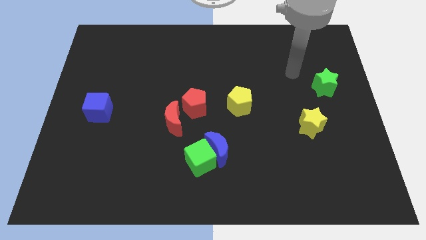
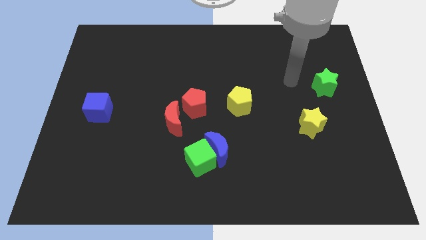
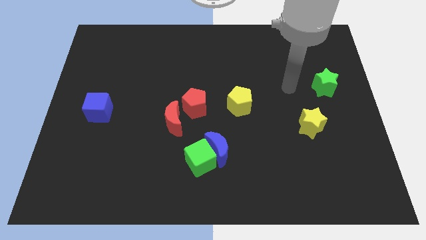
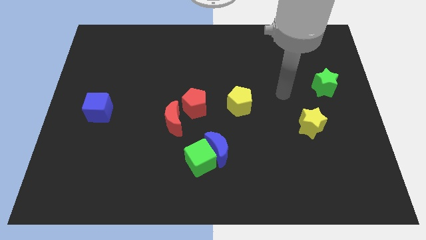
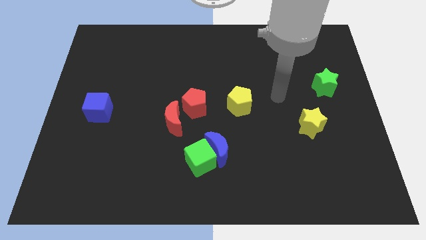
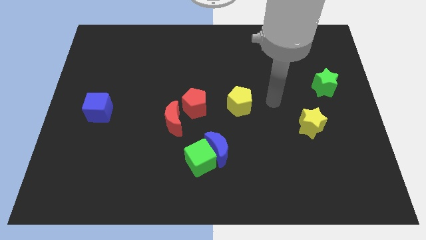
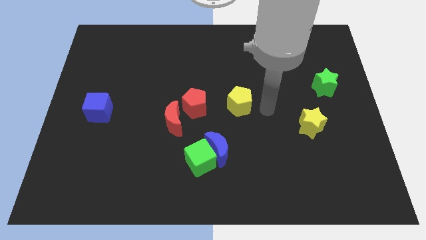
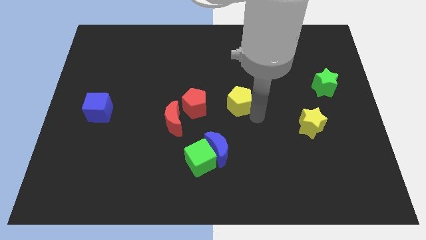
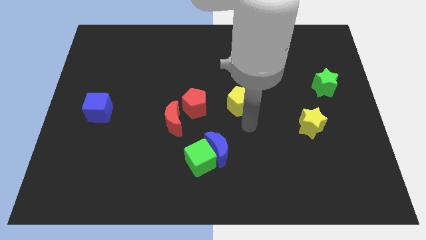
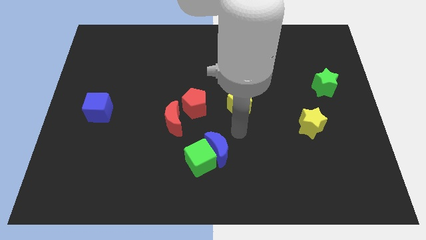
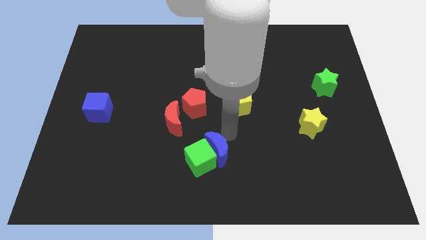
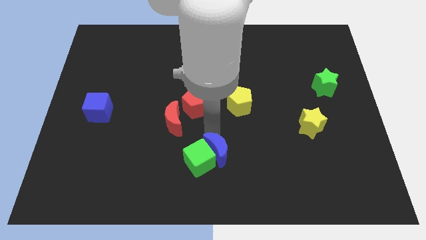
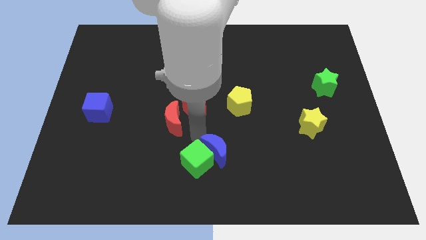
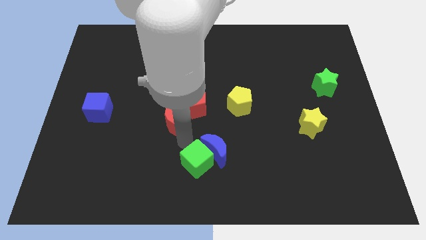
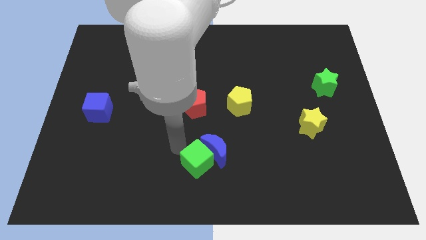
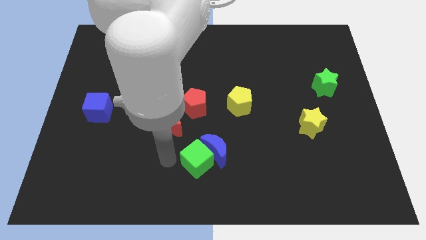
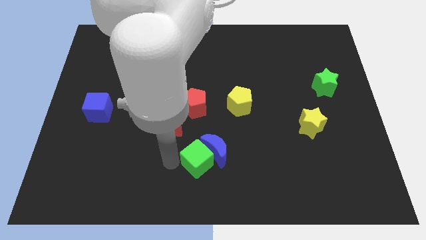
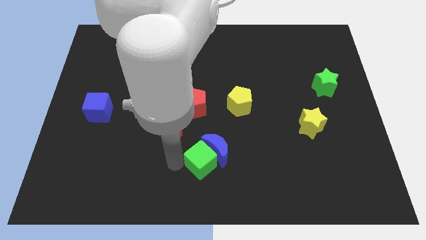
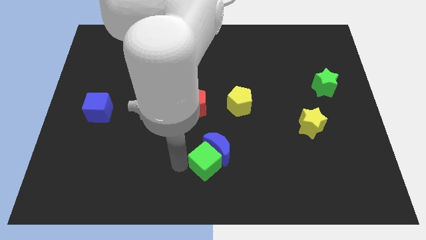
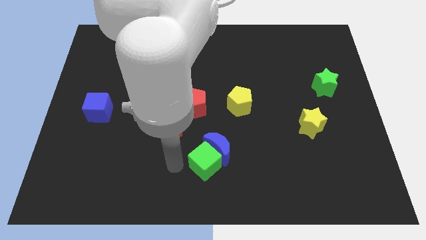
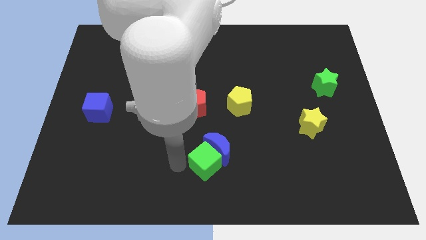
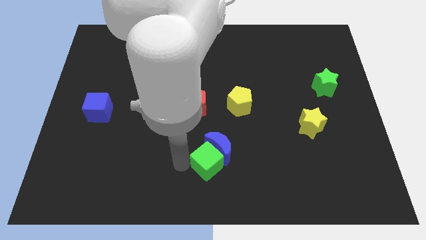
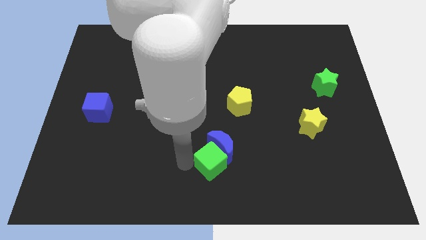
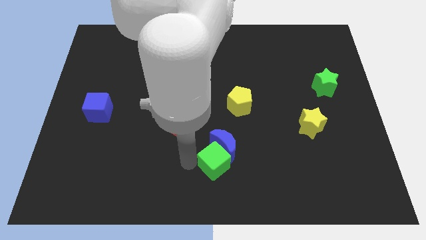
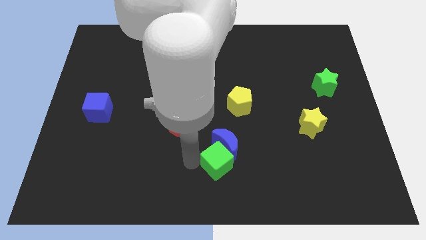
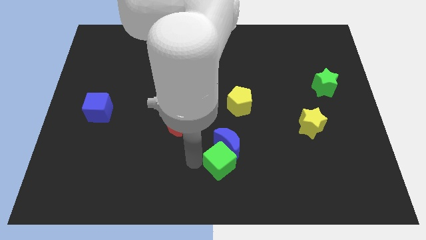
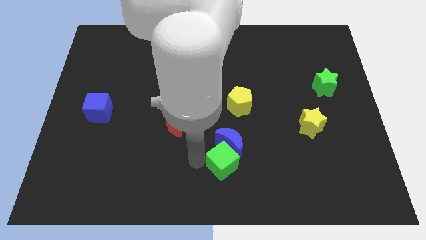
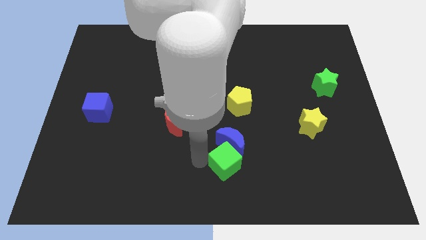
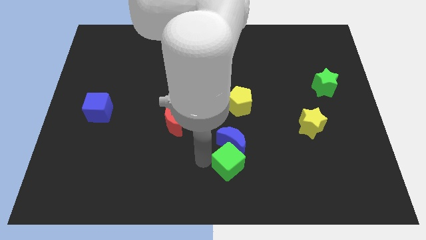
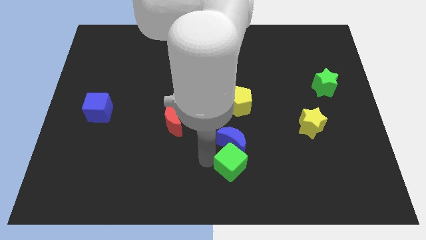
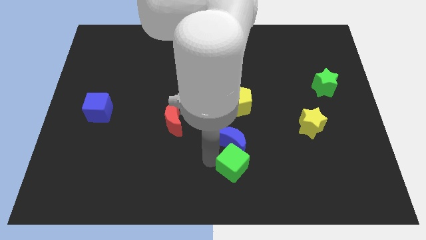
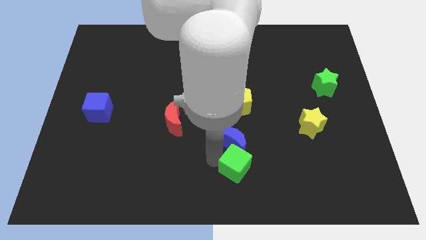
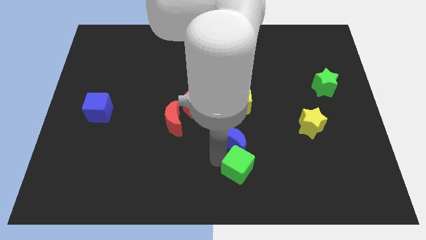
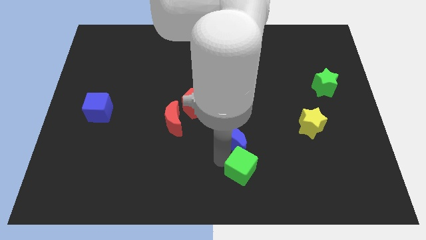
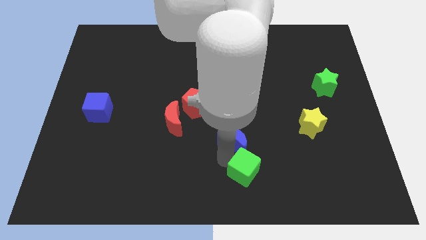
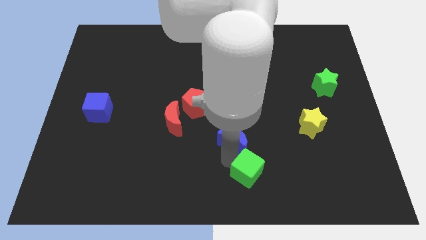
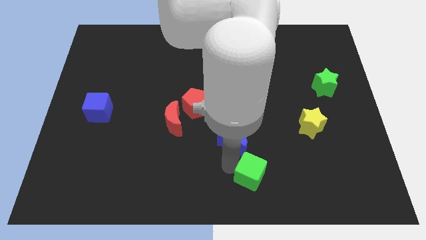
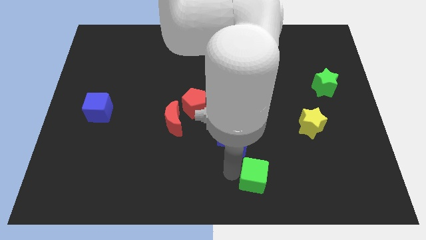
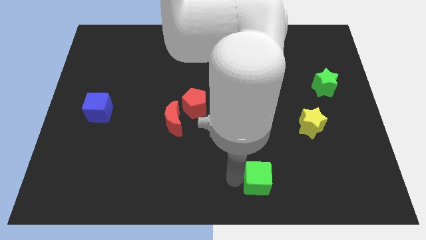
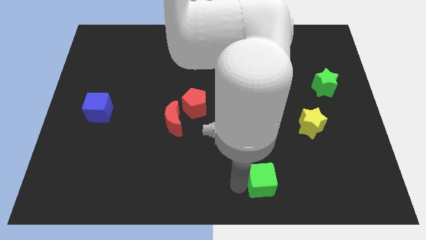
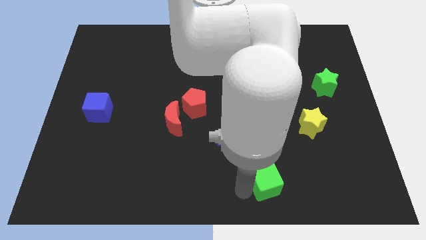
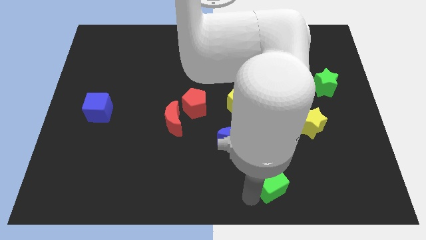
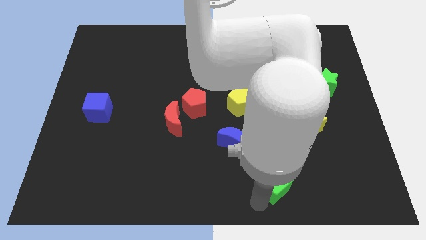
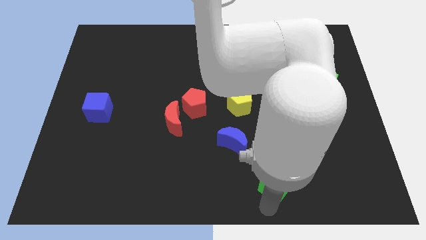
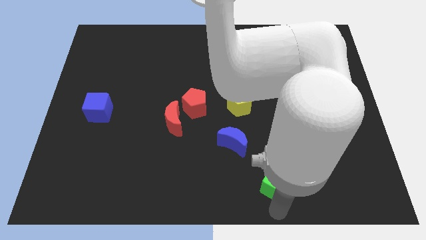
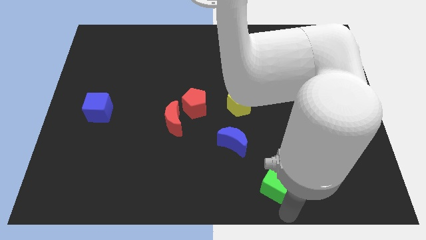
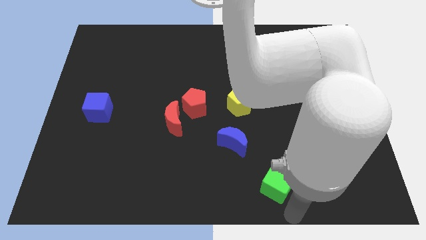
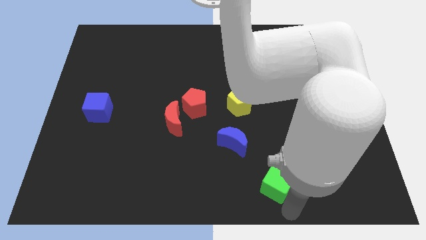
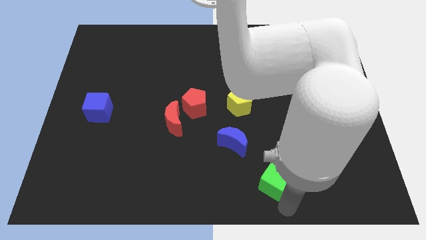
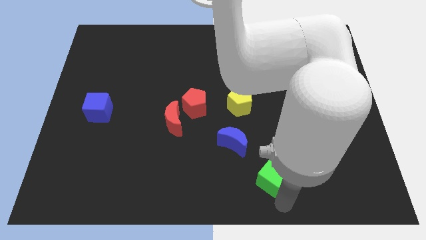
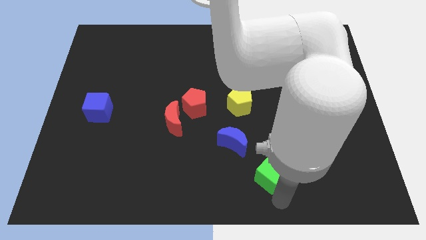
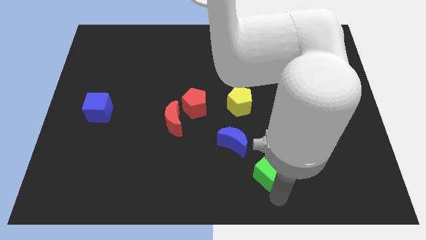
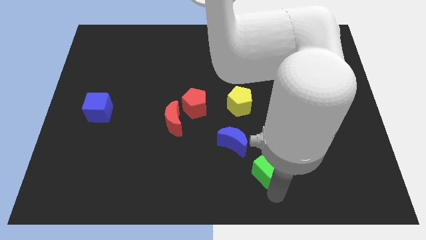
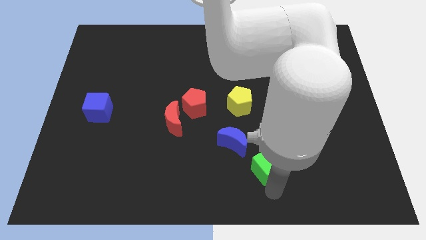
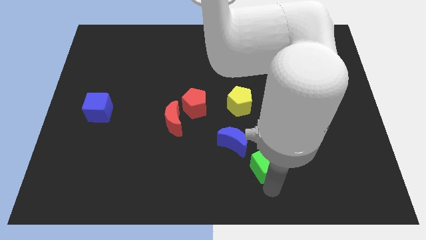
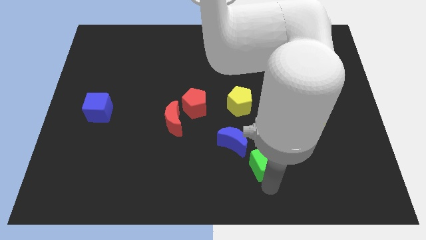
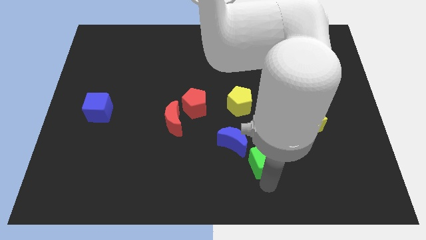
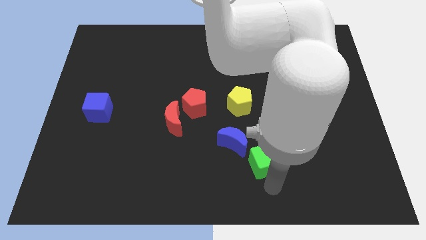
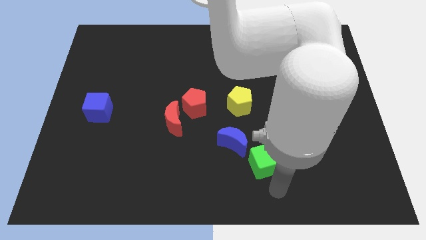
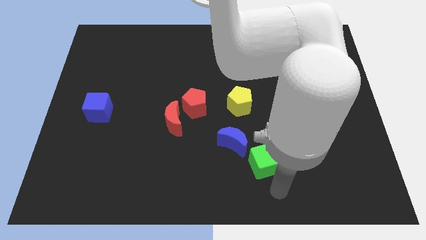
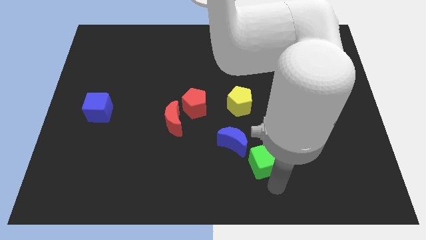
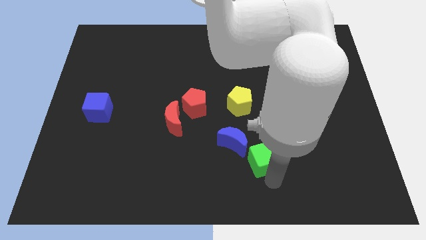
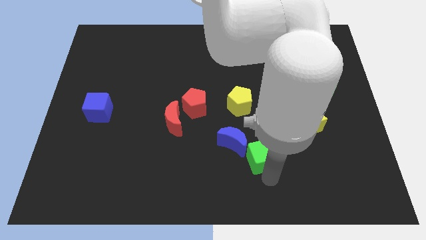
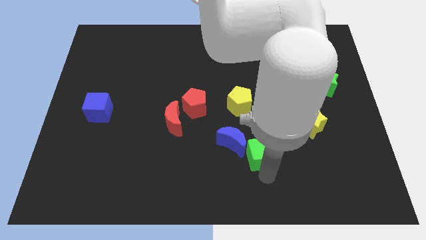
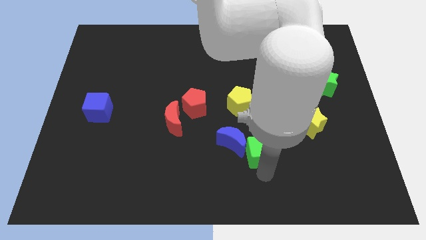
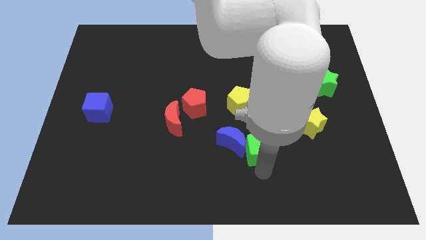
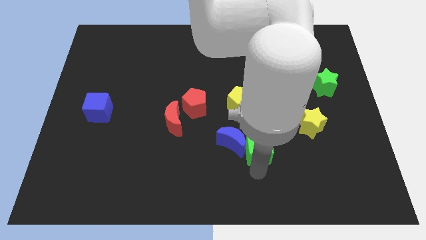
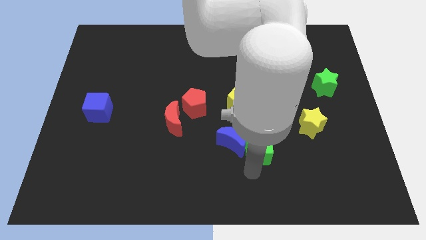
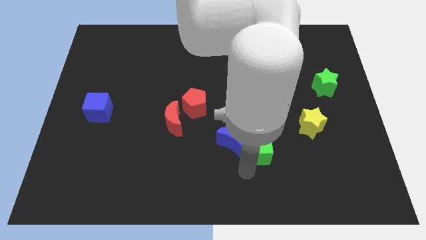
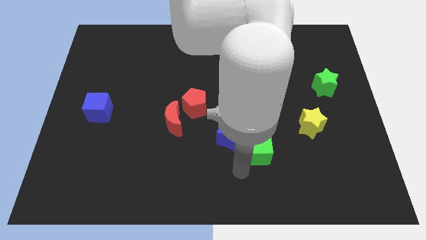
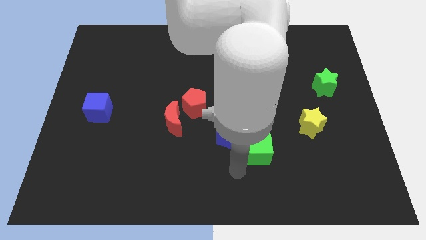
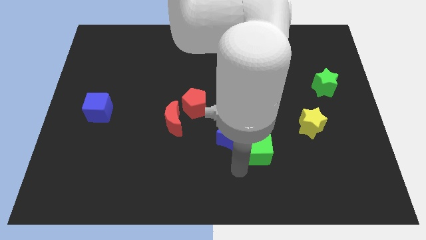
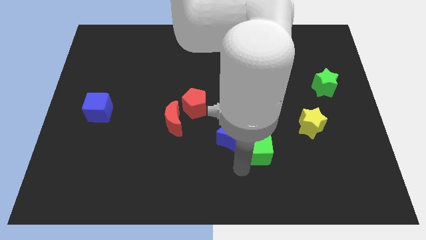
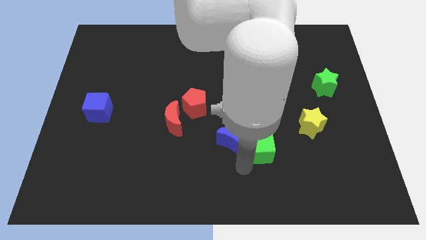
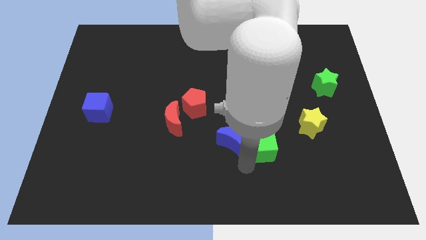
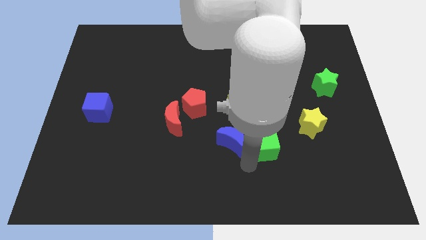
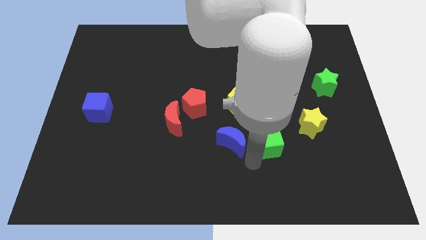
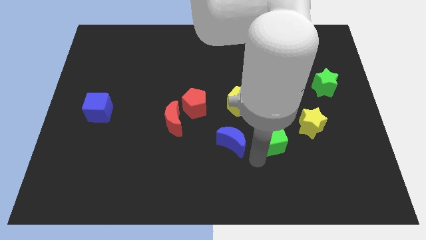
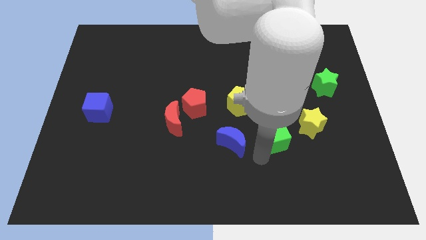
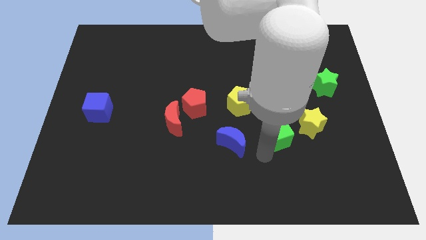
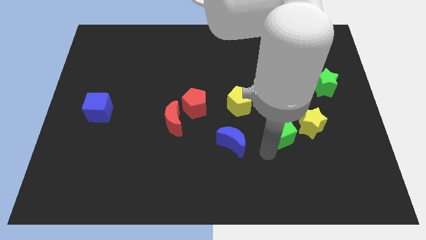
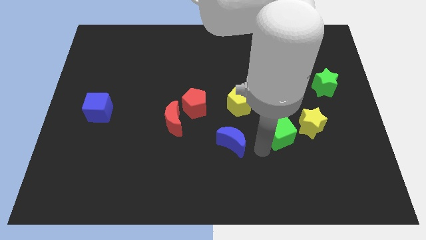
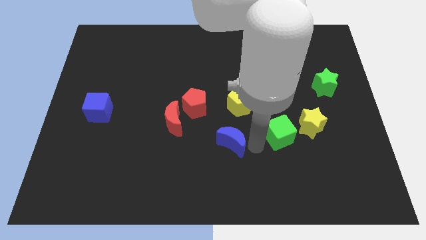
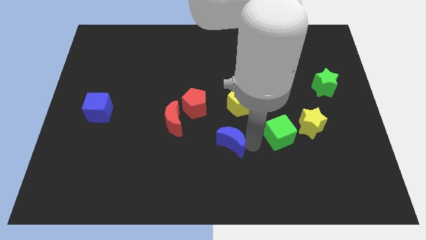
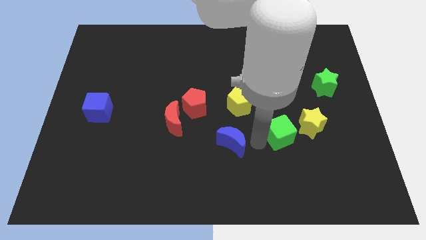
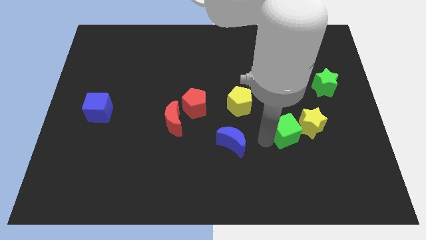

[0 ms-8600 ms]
move the green cube close to the yellow star
